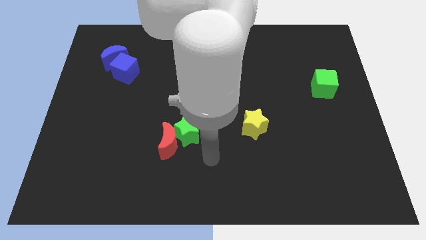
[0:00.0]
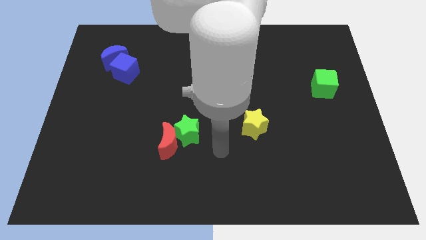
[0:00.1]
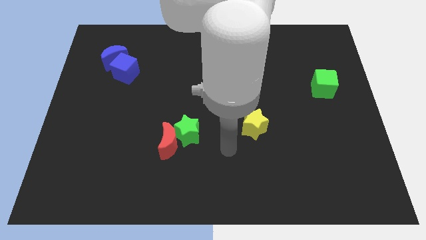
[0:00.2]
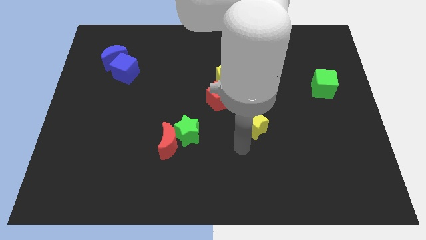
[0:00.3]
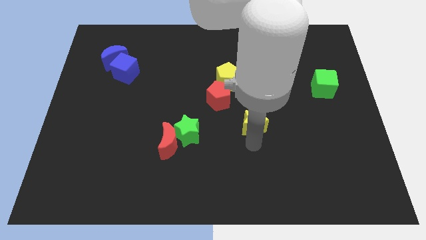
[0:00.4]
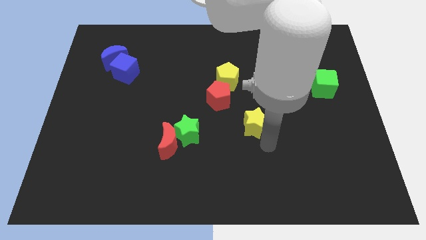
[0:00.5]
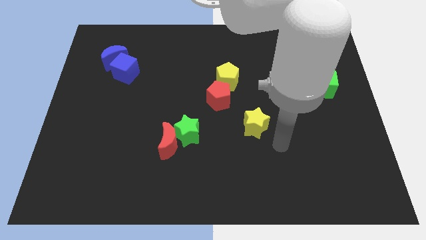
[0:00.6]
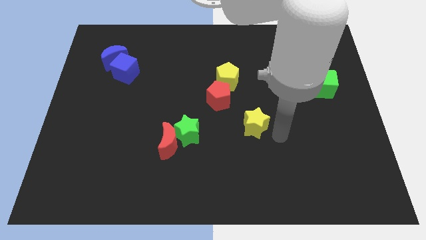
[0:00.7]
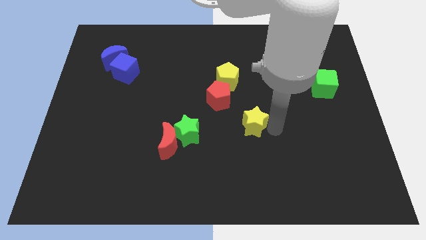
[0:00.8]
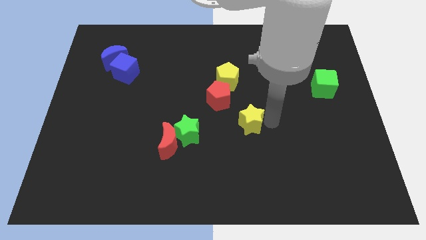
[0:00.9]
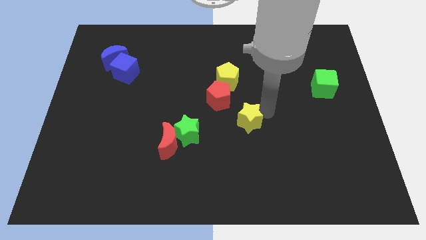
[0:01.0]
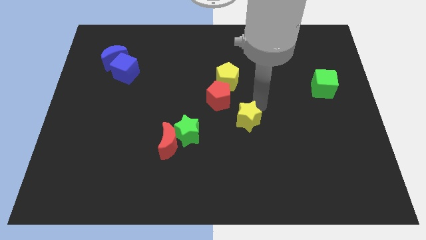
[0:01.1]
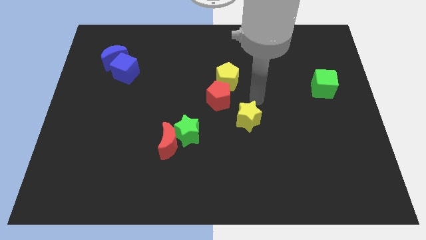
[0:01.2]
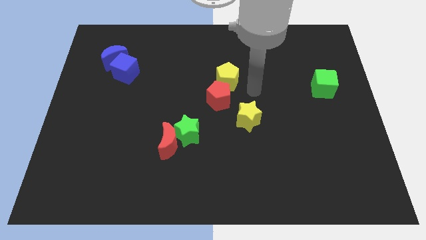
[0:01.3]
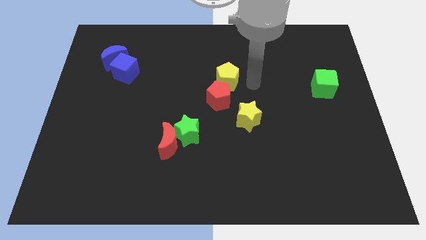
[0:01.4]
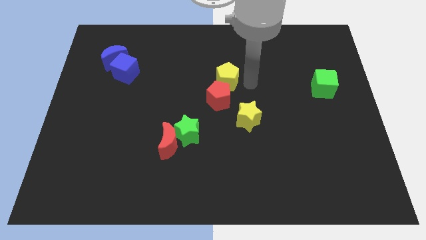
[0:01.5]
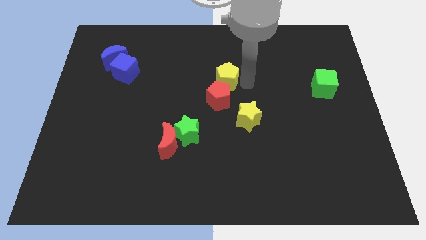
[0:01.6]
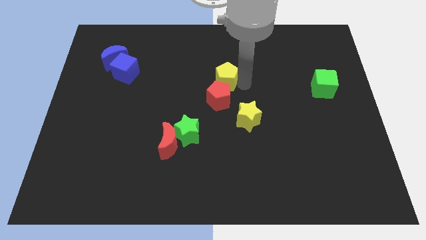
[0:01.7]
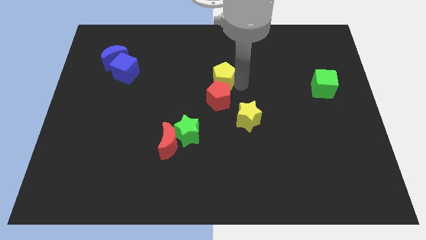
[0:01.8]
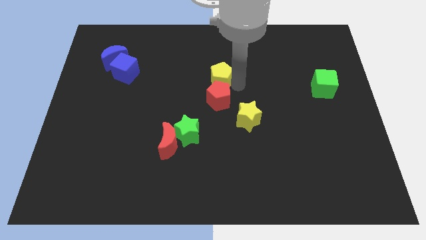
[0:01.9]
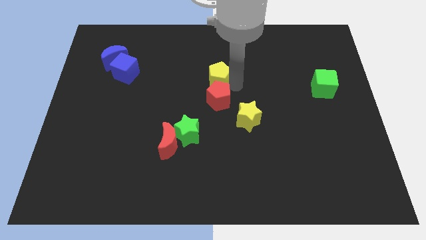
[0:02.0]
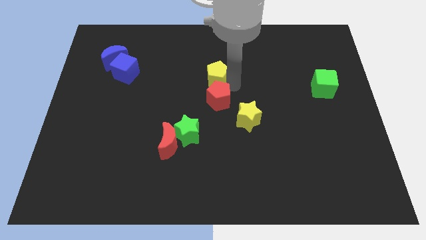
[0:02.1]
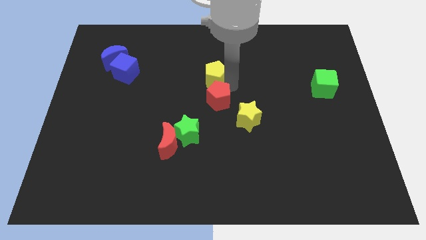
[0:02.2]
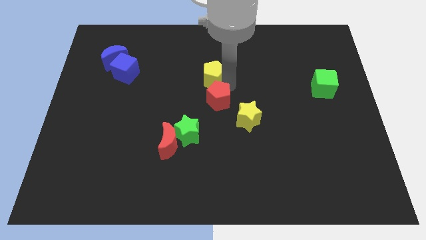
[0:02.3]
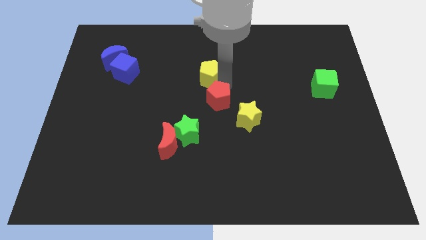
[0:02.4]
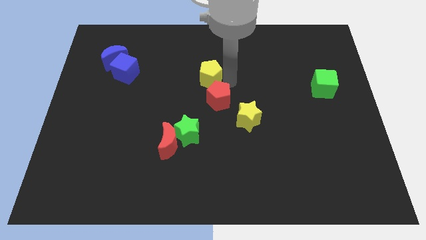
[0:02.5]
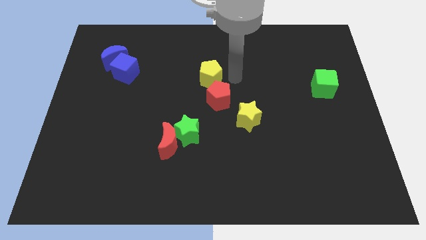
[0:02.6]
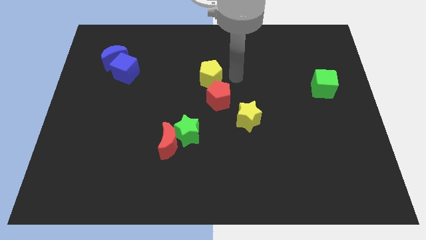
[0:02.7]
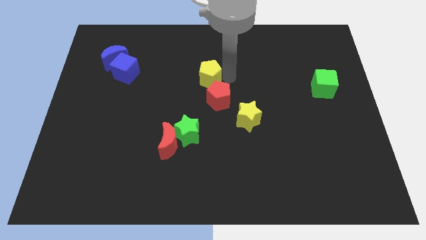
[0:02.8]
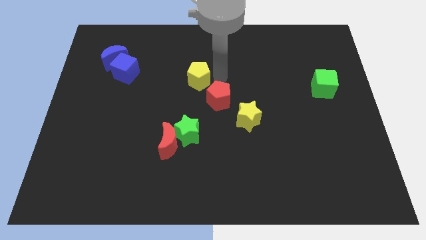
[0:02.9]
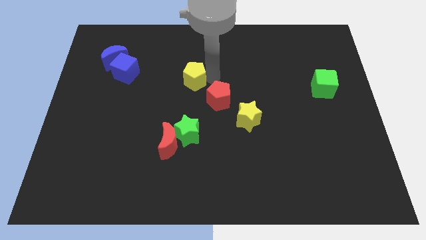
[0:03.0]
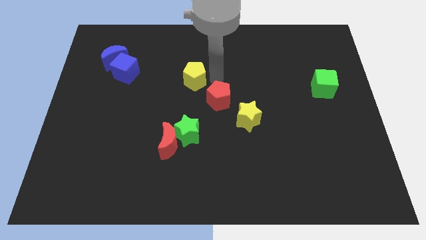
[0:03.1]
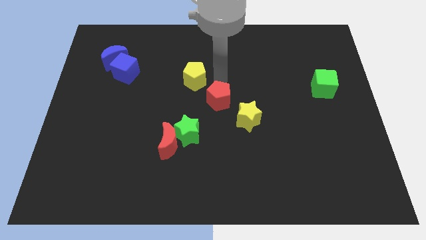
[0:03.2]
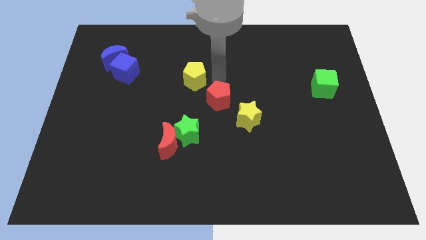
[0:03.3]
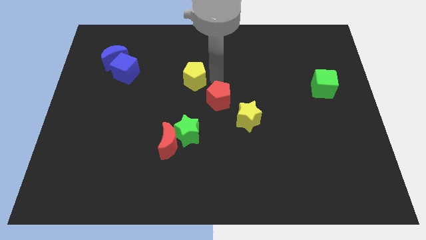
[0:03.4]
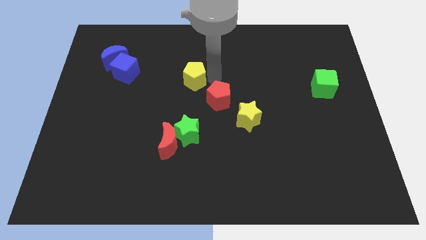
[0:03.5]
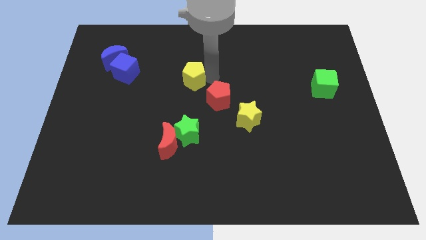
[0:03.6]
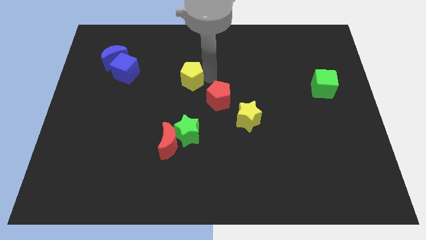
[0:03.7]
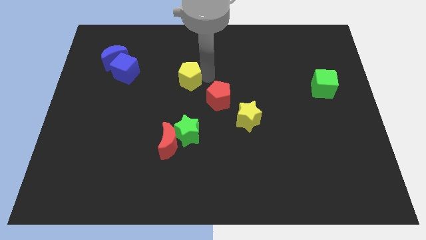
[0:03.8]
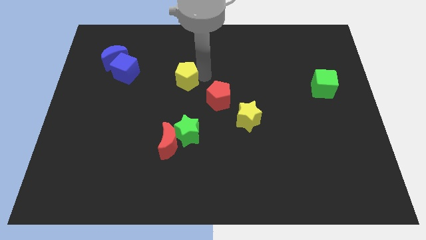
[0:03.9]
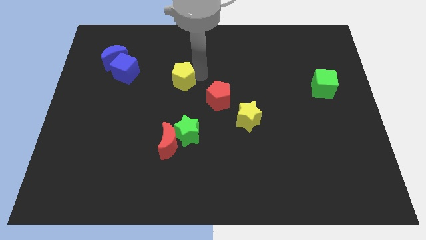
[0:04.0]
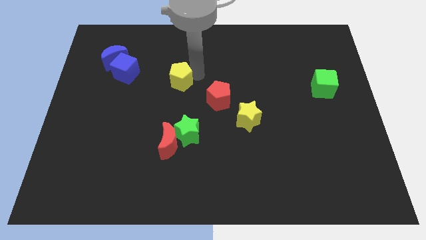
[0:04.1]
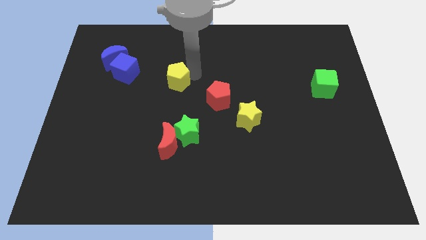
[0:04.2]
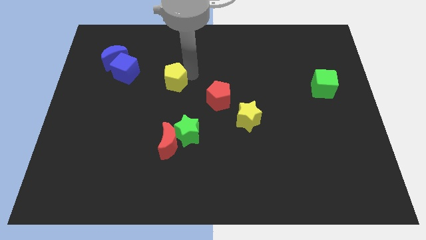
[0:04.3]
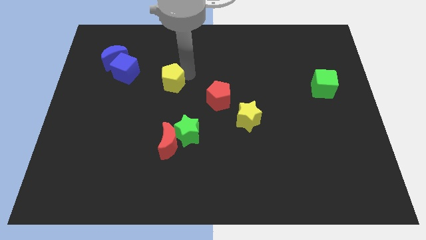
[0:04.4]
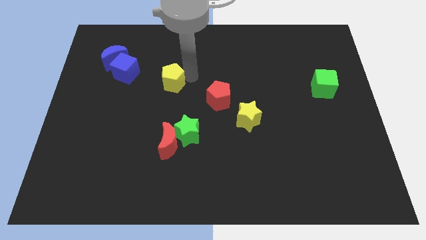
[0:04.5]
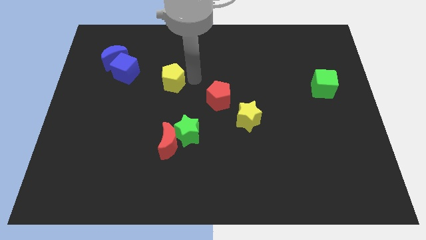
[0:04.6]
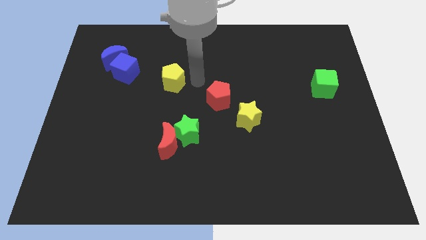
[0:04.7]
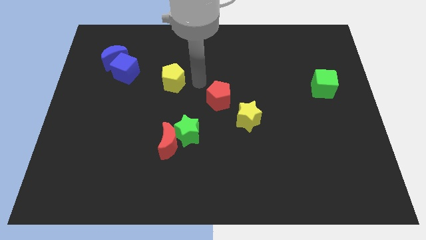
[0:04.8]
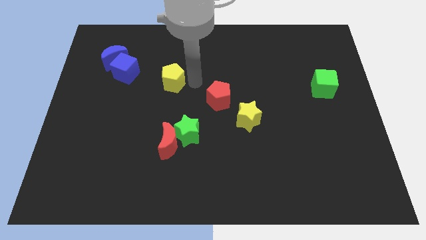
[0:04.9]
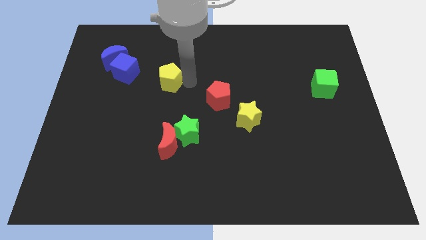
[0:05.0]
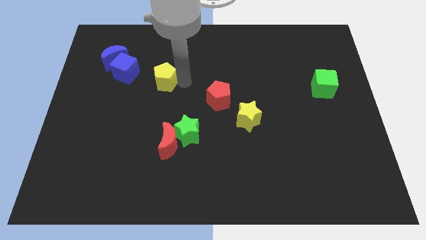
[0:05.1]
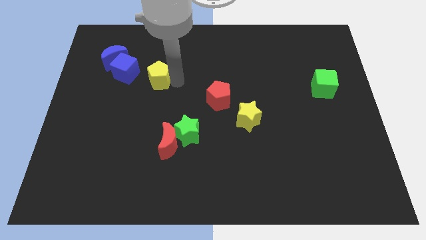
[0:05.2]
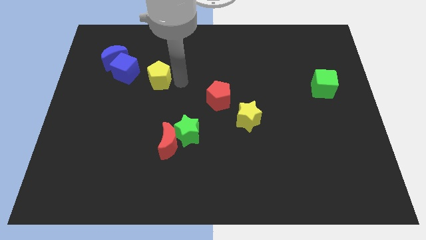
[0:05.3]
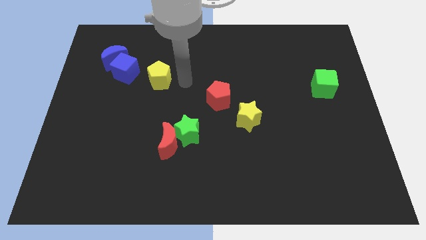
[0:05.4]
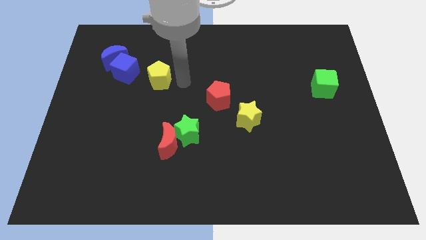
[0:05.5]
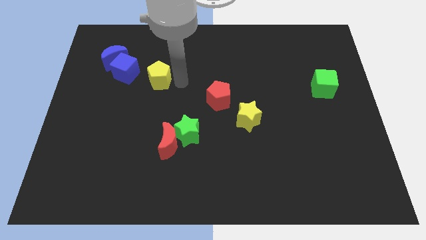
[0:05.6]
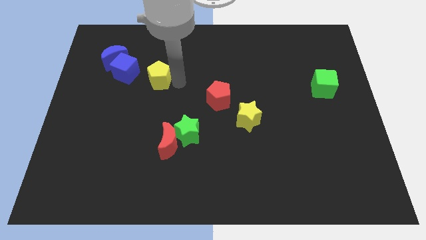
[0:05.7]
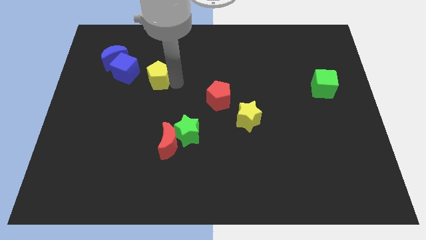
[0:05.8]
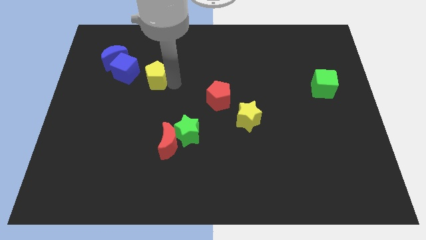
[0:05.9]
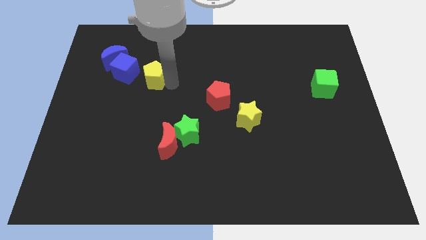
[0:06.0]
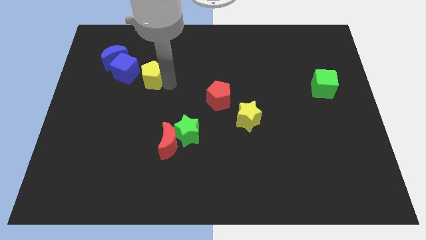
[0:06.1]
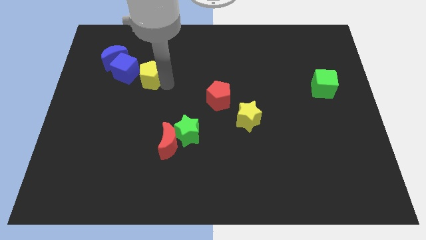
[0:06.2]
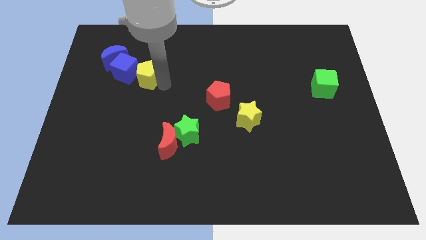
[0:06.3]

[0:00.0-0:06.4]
put the yellow pentagon to the blue cube

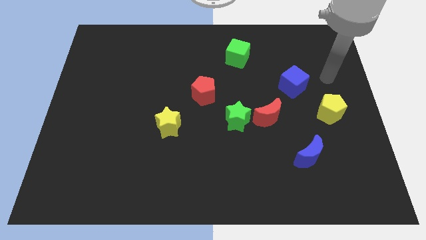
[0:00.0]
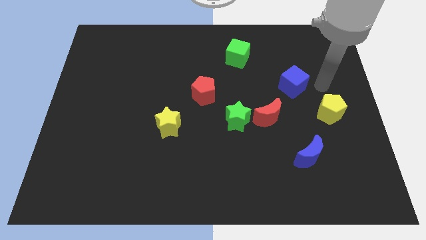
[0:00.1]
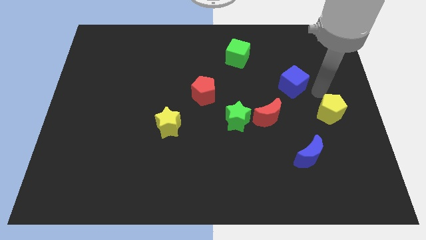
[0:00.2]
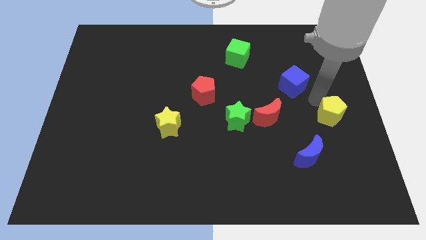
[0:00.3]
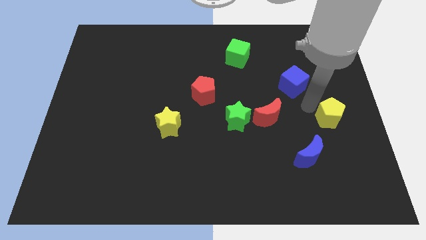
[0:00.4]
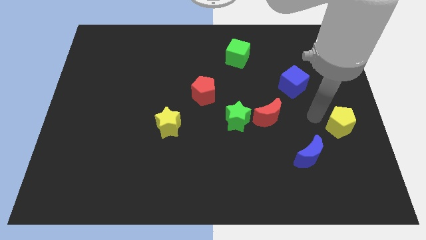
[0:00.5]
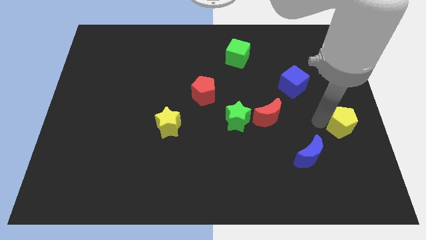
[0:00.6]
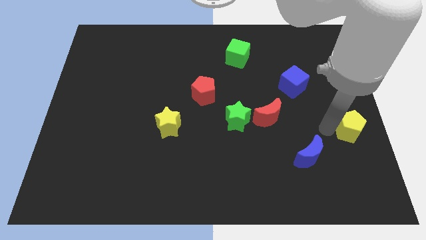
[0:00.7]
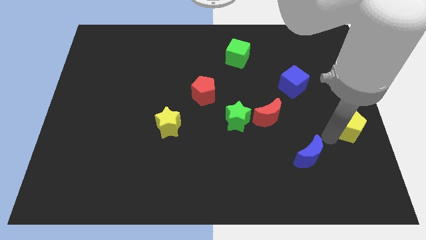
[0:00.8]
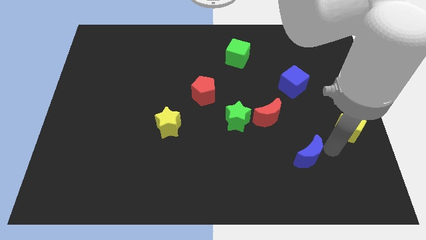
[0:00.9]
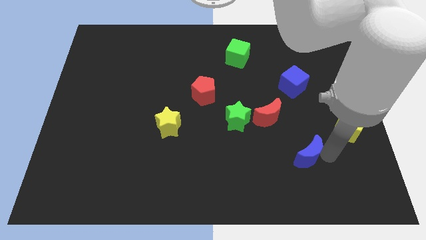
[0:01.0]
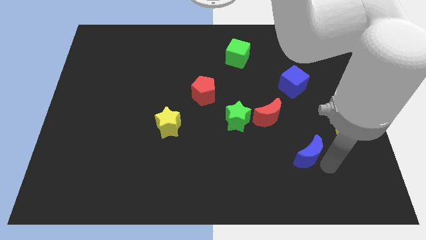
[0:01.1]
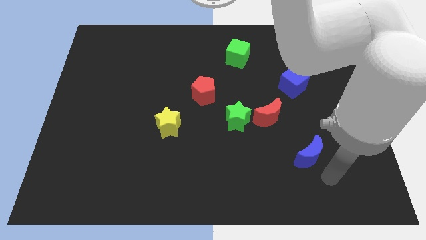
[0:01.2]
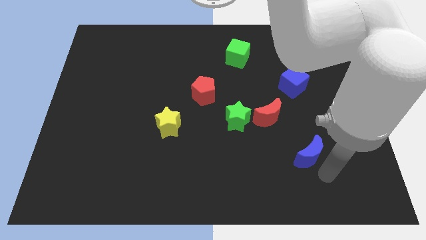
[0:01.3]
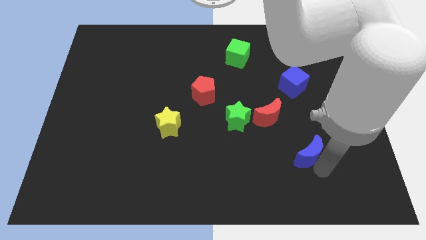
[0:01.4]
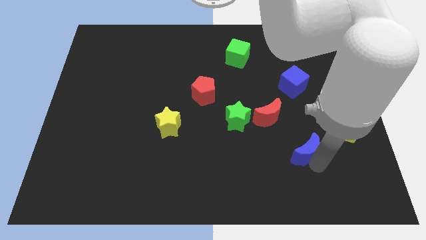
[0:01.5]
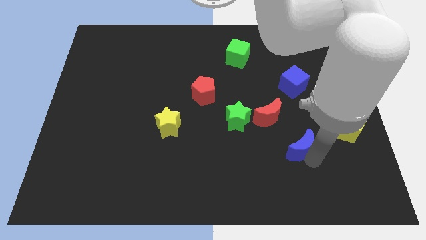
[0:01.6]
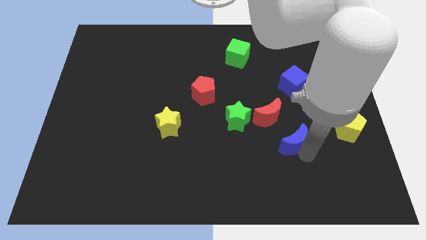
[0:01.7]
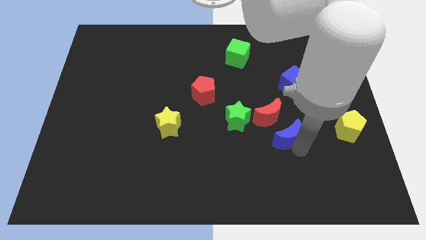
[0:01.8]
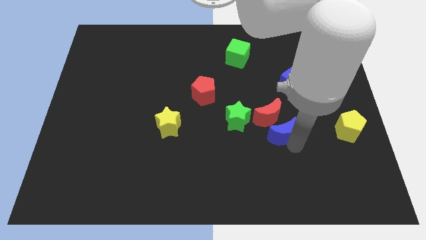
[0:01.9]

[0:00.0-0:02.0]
push the blue moon towards the red moon
